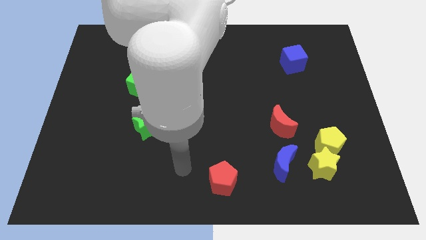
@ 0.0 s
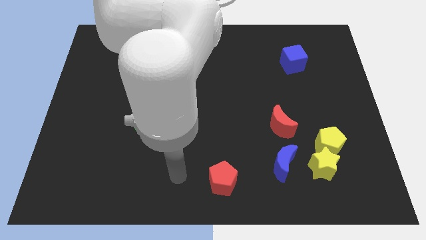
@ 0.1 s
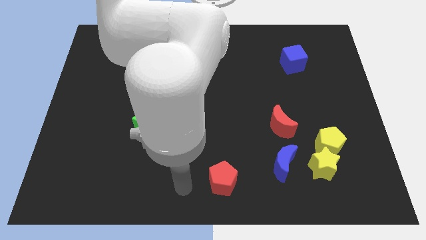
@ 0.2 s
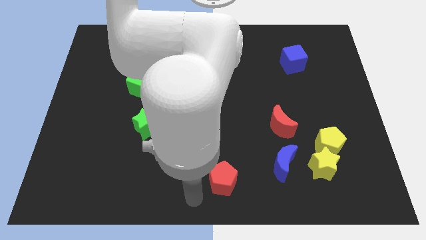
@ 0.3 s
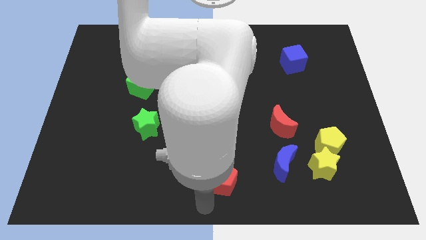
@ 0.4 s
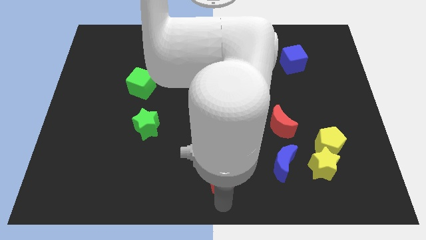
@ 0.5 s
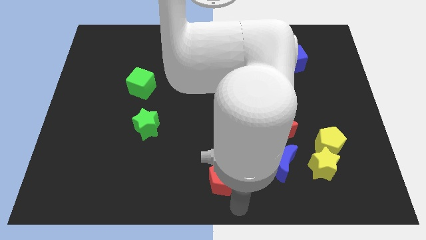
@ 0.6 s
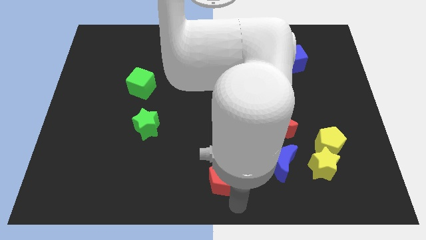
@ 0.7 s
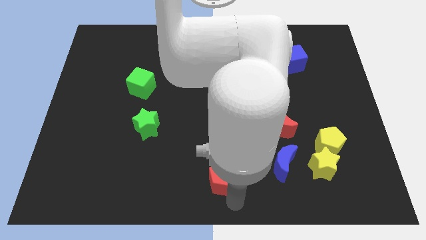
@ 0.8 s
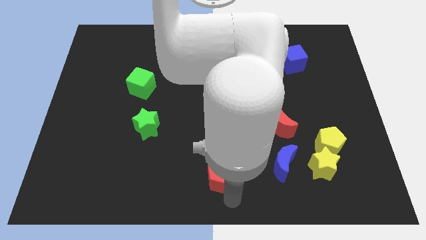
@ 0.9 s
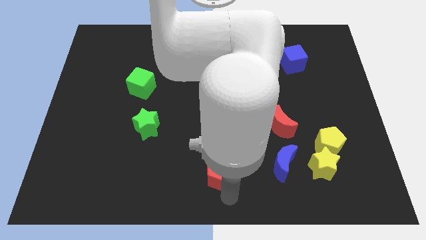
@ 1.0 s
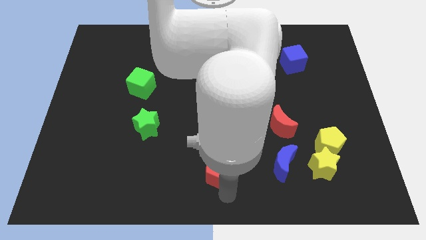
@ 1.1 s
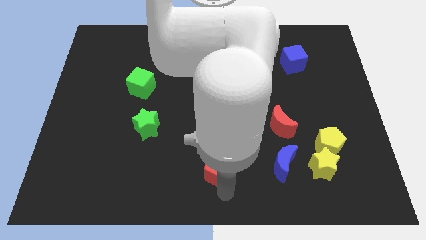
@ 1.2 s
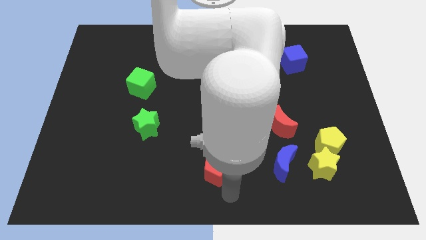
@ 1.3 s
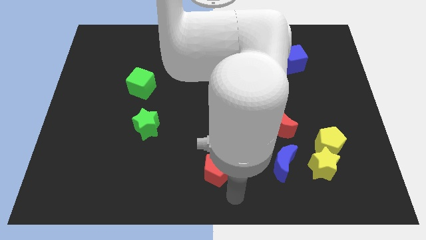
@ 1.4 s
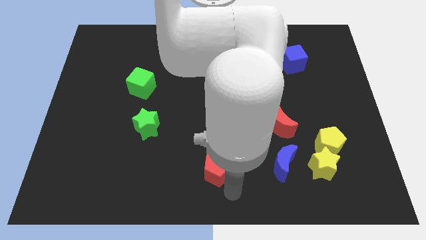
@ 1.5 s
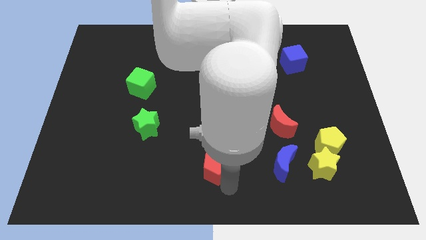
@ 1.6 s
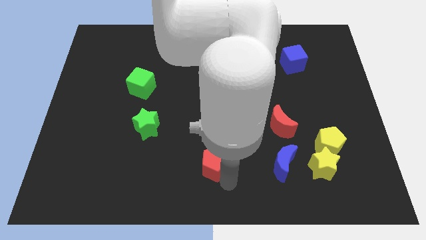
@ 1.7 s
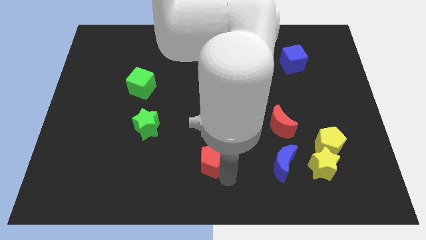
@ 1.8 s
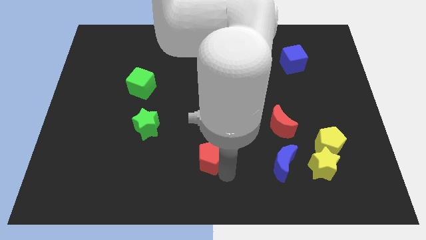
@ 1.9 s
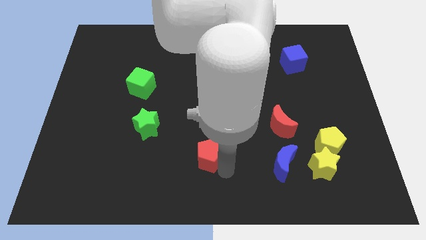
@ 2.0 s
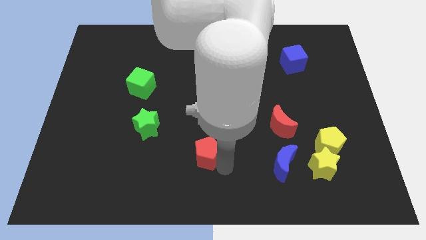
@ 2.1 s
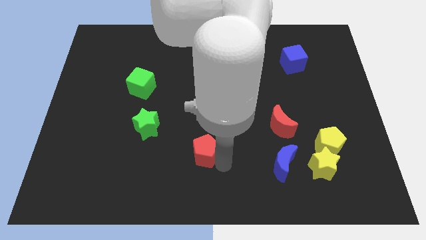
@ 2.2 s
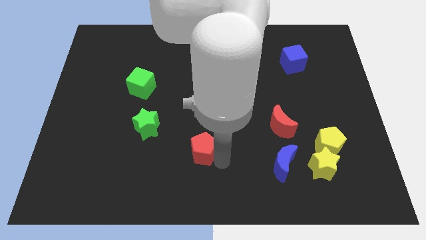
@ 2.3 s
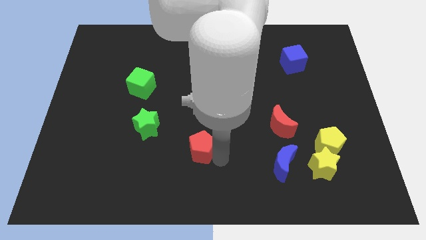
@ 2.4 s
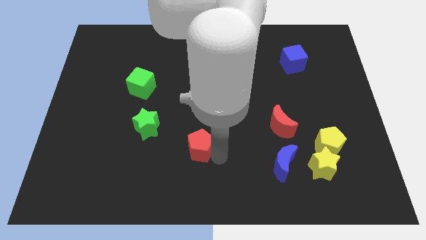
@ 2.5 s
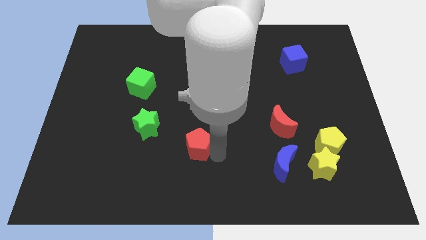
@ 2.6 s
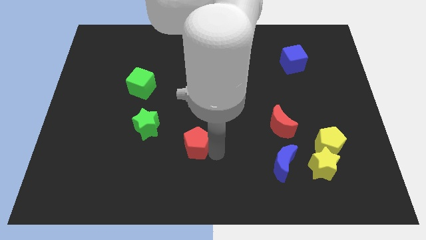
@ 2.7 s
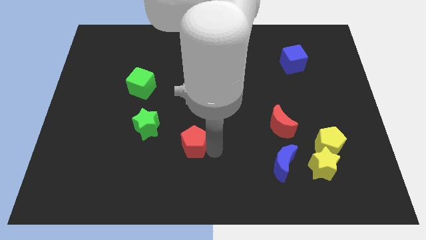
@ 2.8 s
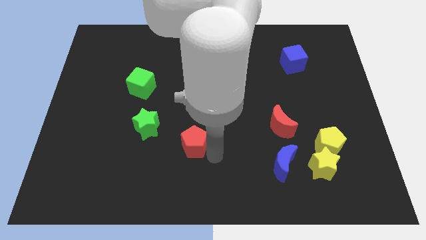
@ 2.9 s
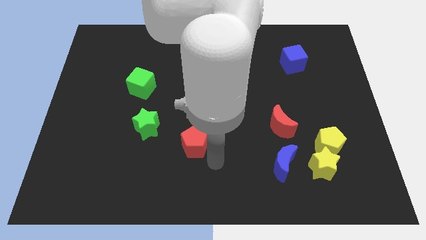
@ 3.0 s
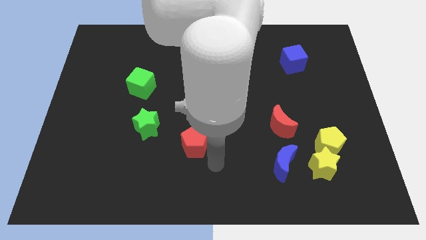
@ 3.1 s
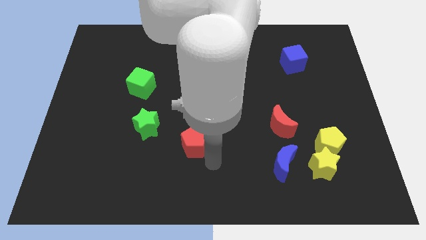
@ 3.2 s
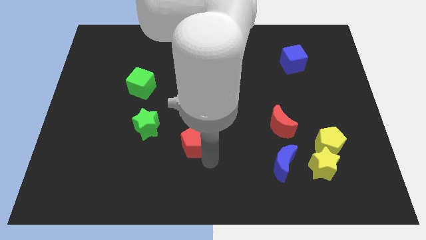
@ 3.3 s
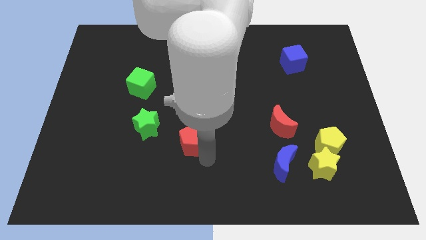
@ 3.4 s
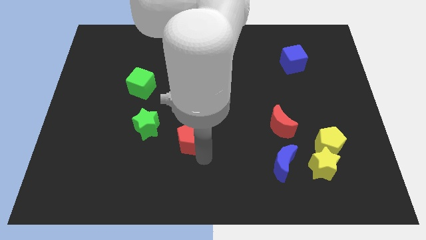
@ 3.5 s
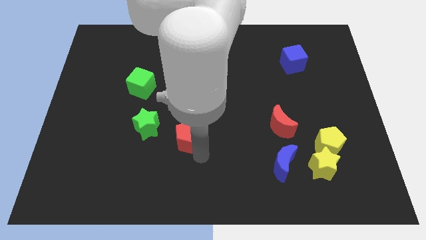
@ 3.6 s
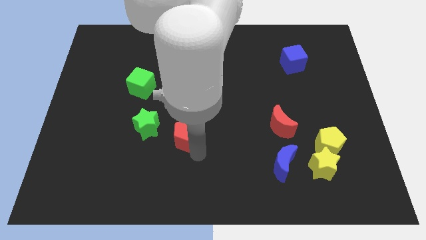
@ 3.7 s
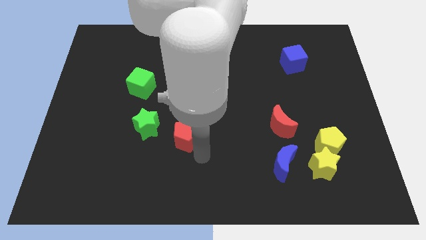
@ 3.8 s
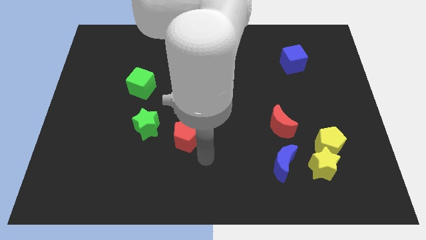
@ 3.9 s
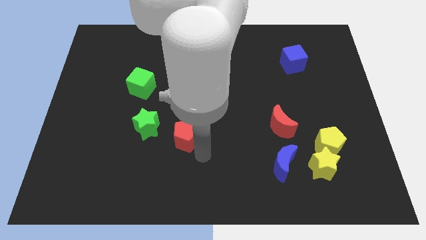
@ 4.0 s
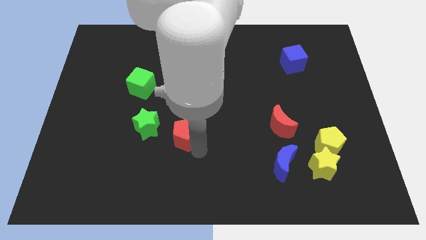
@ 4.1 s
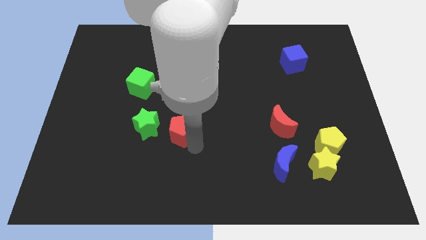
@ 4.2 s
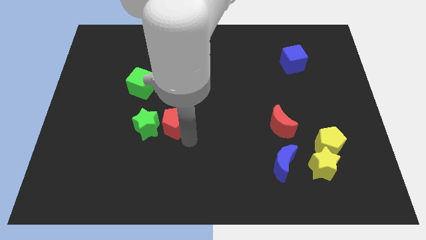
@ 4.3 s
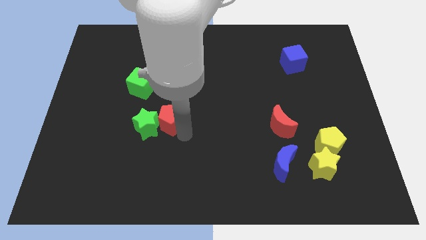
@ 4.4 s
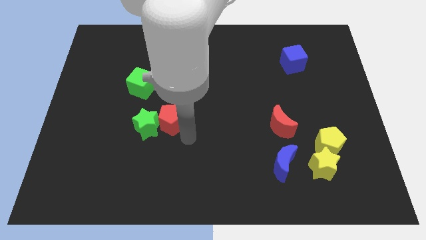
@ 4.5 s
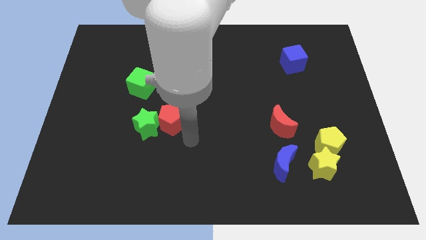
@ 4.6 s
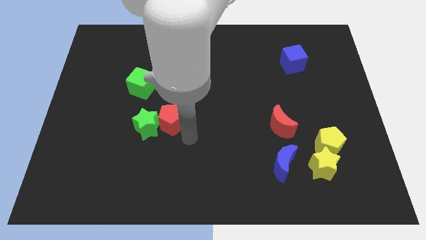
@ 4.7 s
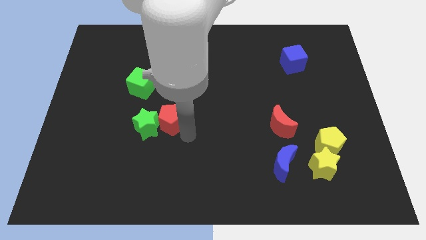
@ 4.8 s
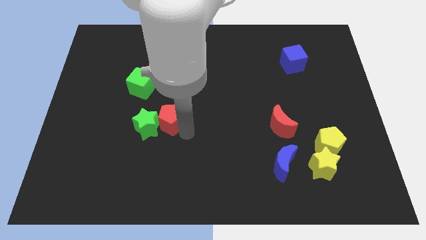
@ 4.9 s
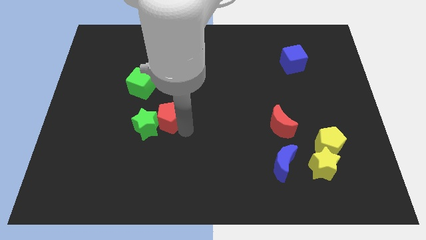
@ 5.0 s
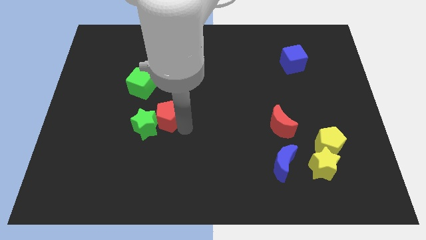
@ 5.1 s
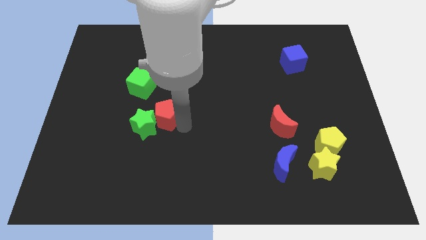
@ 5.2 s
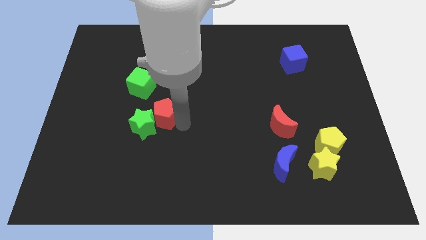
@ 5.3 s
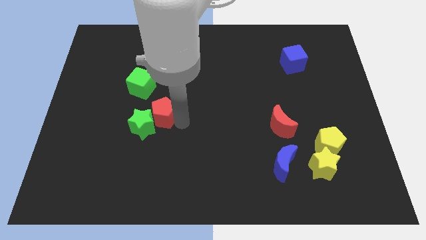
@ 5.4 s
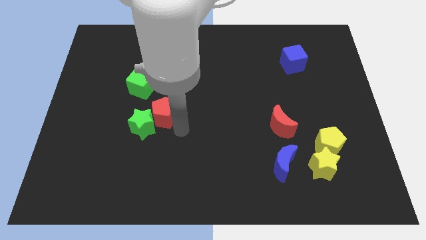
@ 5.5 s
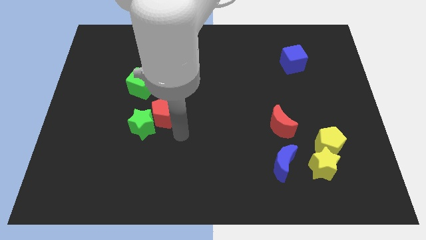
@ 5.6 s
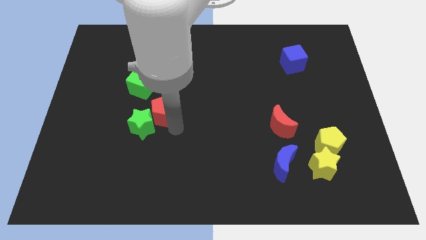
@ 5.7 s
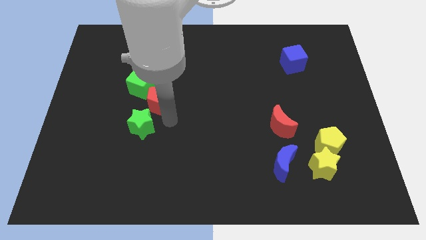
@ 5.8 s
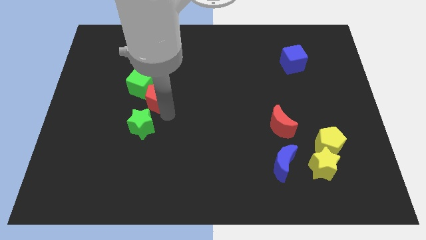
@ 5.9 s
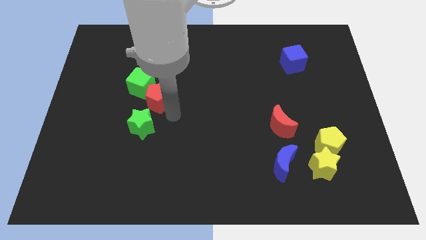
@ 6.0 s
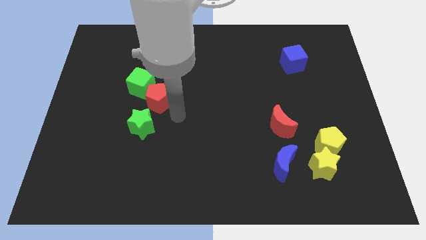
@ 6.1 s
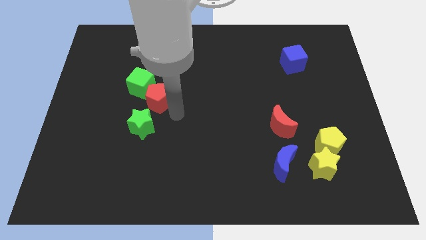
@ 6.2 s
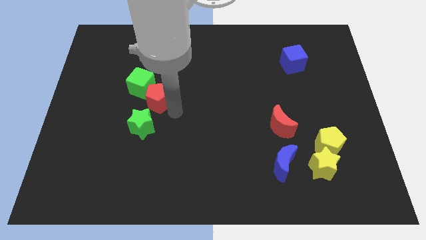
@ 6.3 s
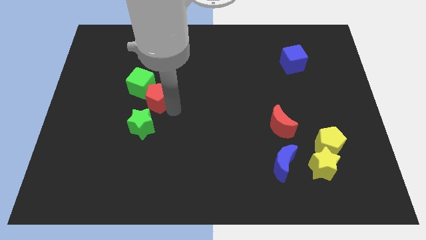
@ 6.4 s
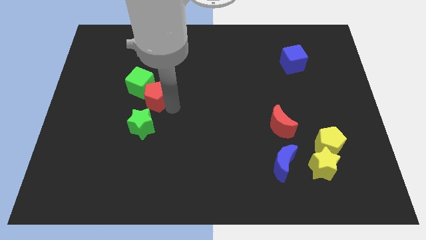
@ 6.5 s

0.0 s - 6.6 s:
move the red pentagon to the green cube

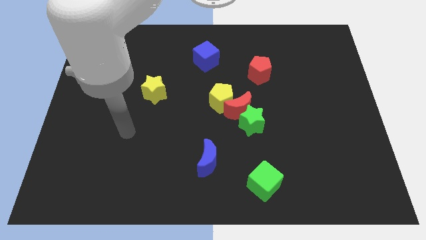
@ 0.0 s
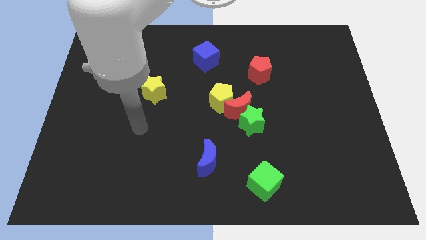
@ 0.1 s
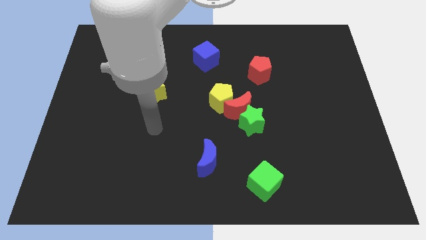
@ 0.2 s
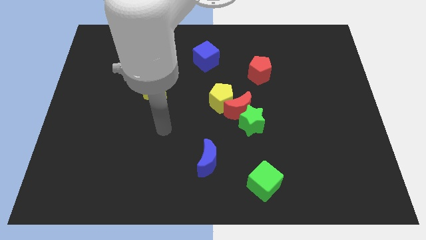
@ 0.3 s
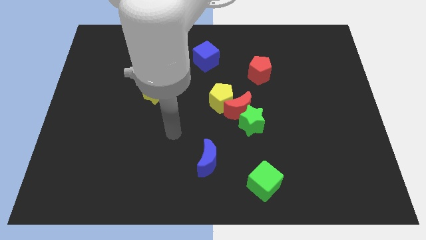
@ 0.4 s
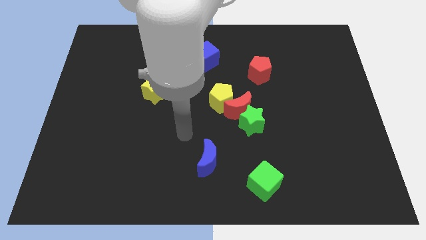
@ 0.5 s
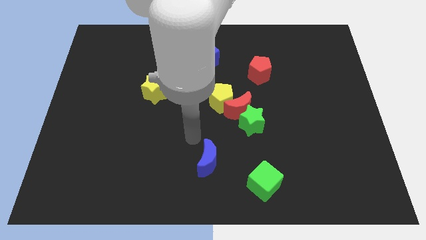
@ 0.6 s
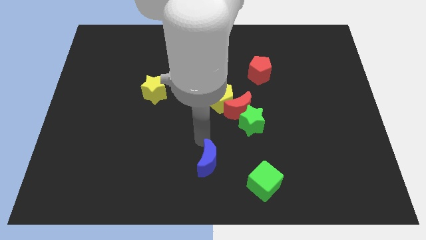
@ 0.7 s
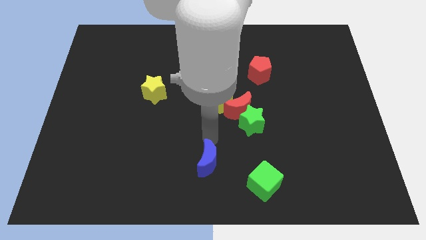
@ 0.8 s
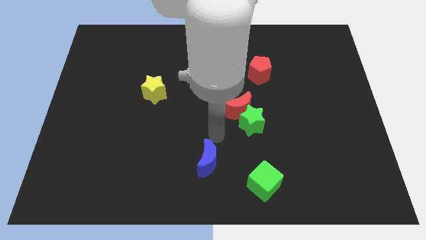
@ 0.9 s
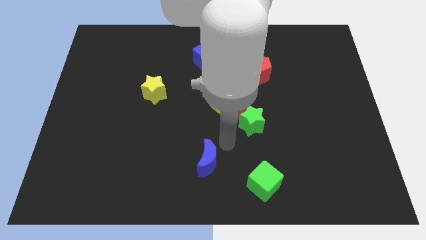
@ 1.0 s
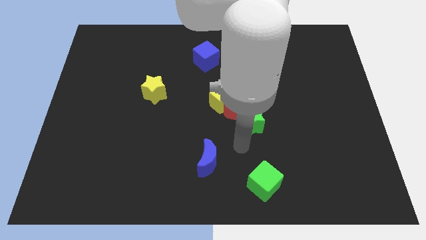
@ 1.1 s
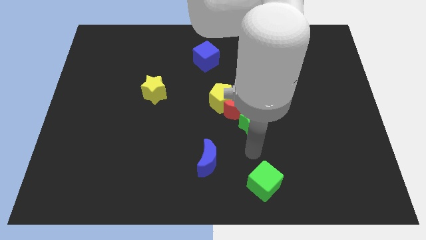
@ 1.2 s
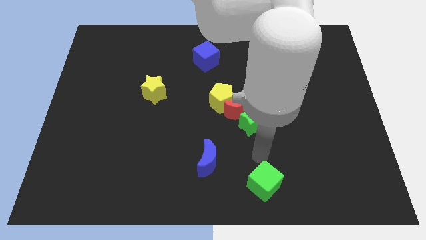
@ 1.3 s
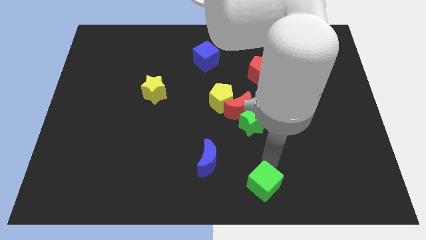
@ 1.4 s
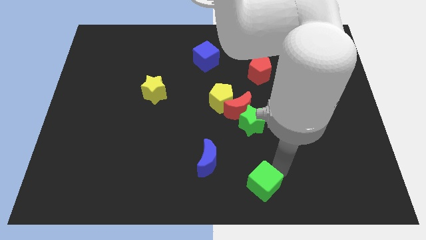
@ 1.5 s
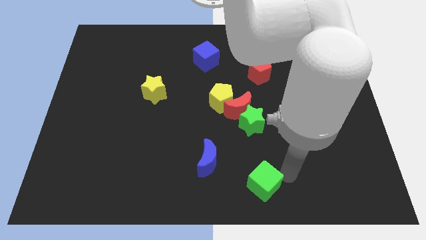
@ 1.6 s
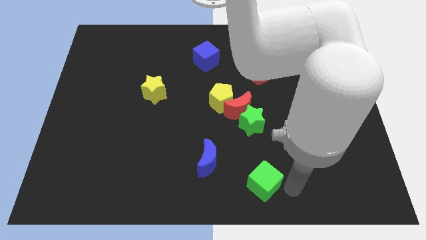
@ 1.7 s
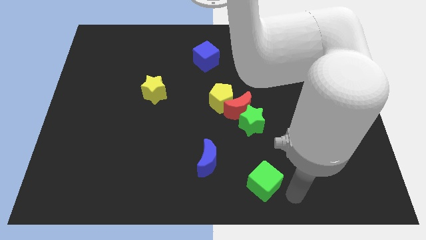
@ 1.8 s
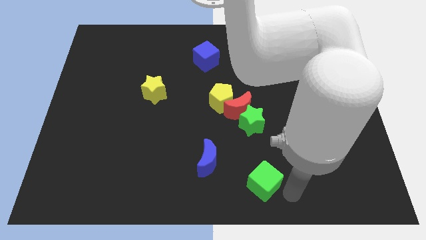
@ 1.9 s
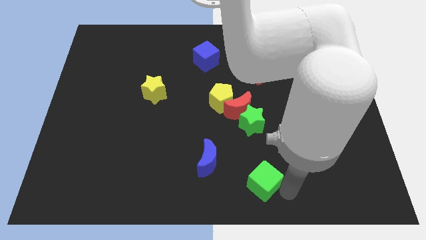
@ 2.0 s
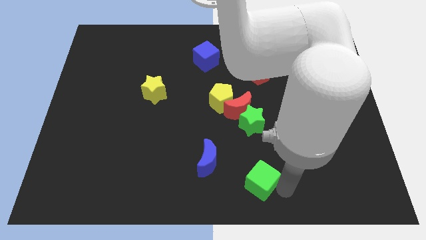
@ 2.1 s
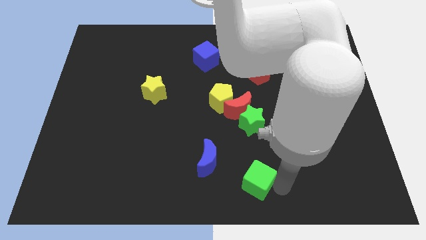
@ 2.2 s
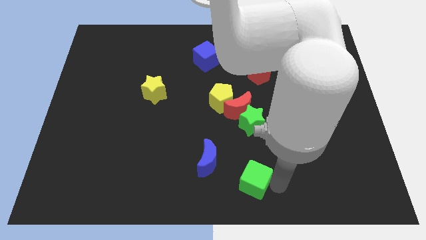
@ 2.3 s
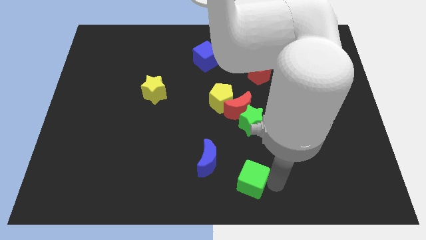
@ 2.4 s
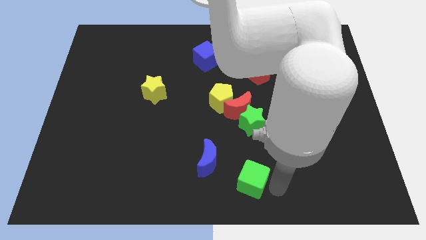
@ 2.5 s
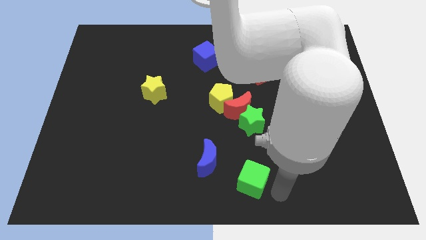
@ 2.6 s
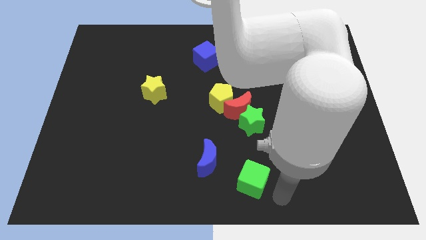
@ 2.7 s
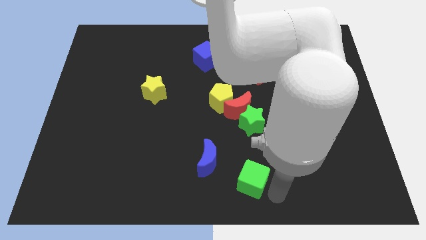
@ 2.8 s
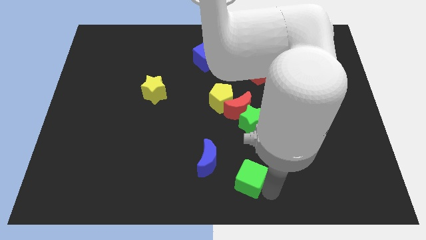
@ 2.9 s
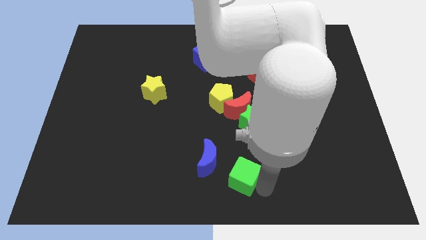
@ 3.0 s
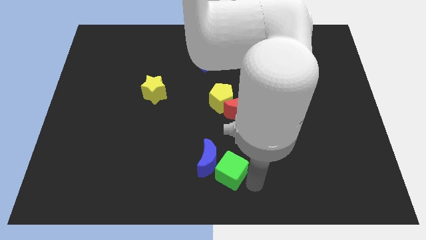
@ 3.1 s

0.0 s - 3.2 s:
push the green cube close to the blue moon
